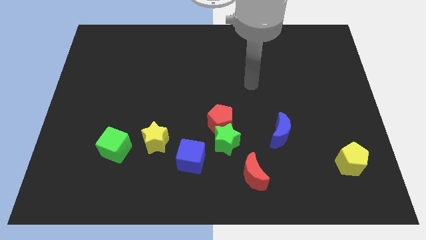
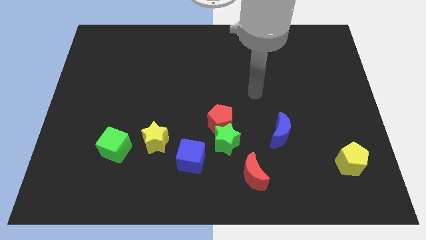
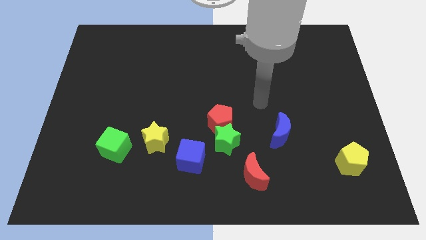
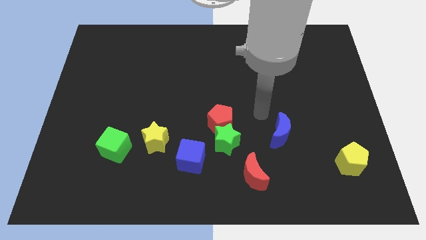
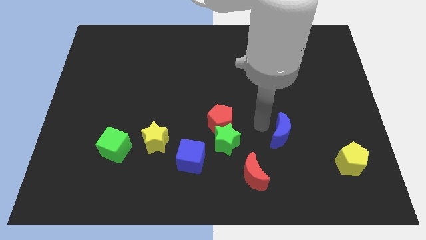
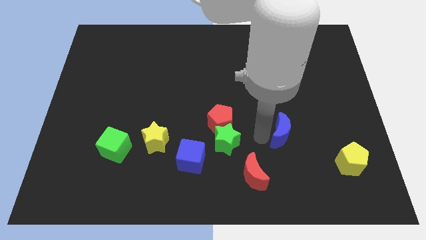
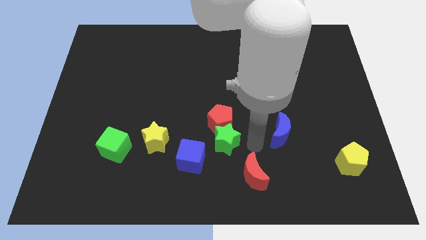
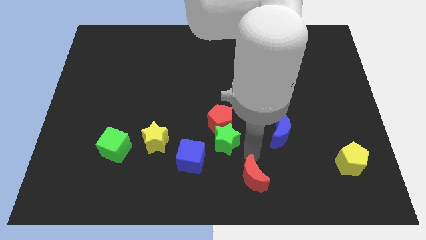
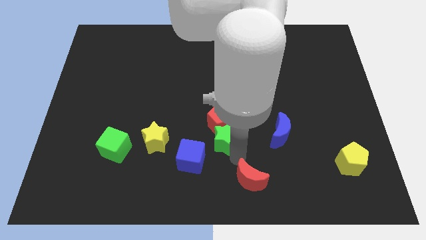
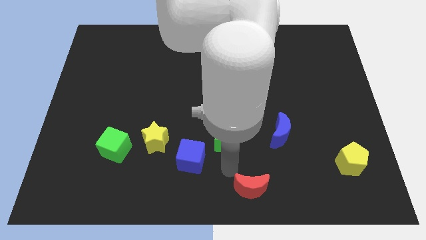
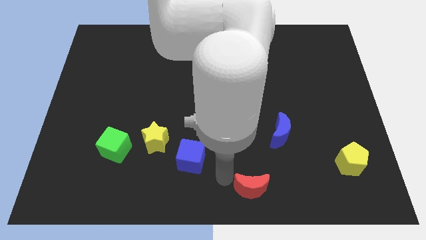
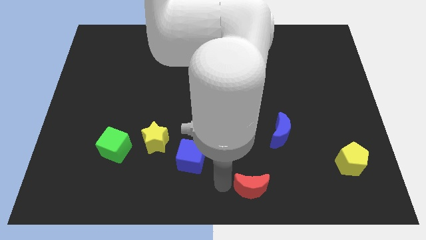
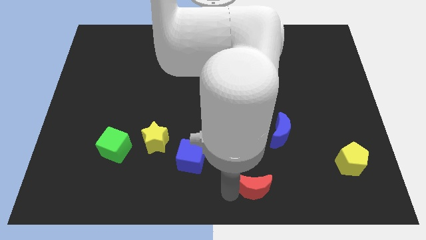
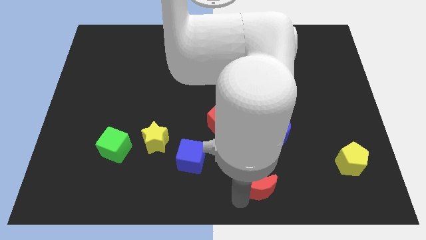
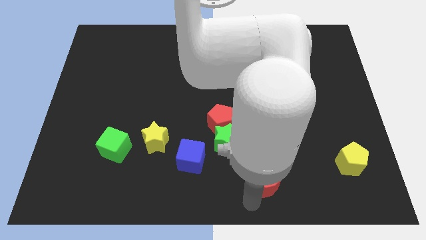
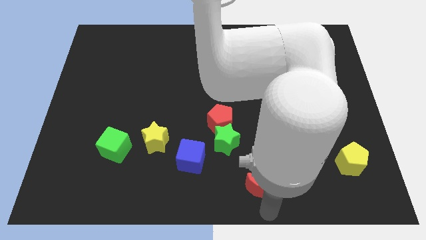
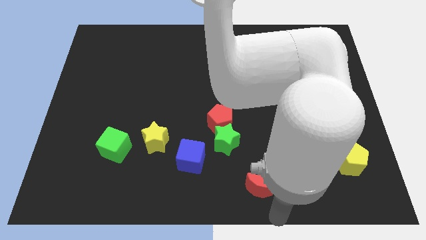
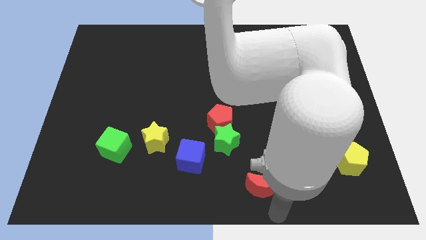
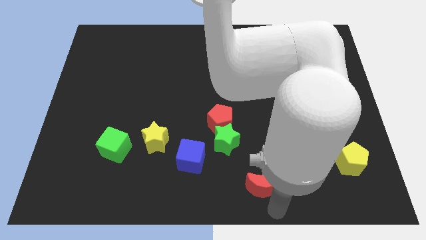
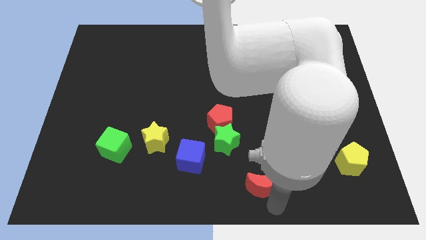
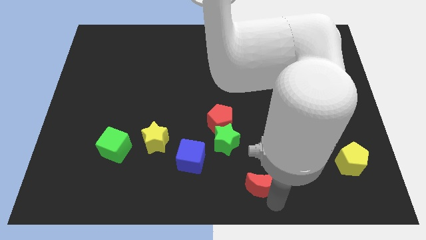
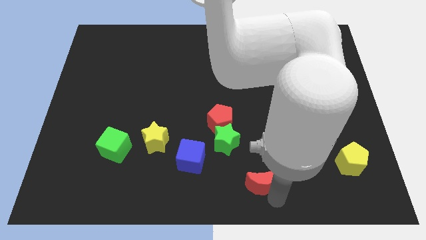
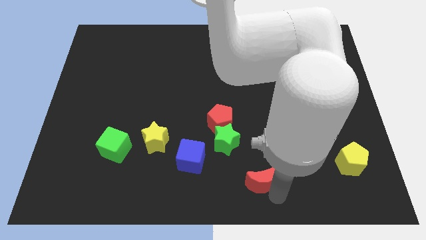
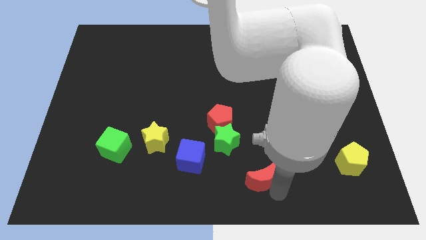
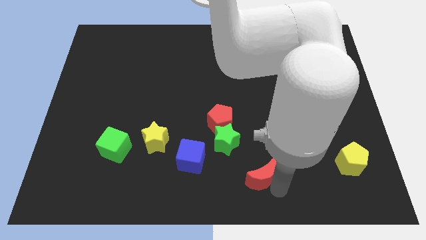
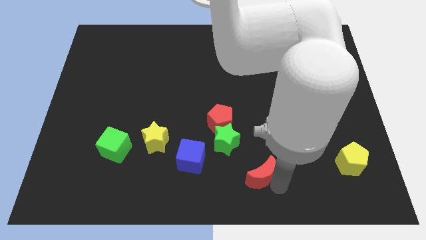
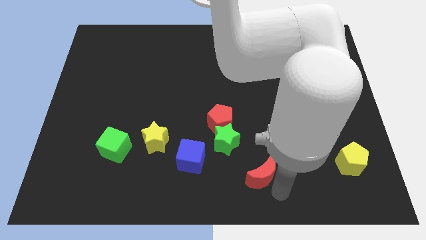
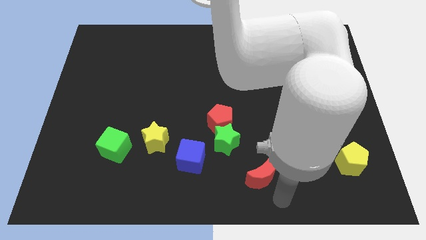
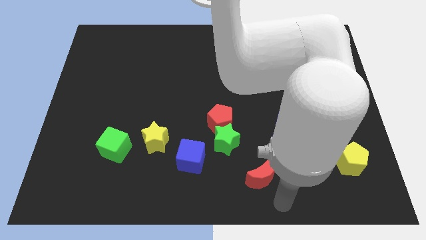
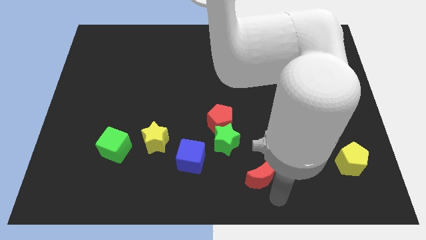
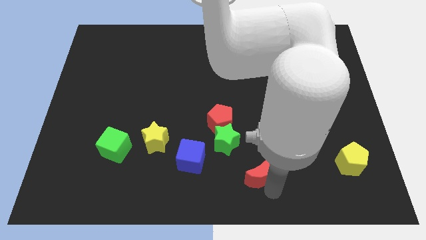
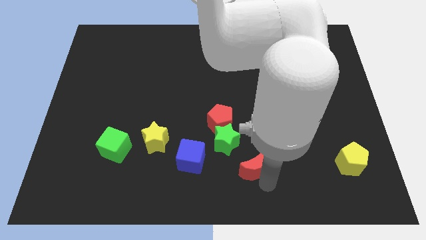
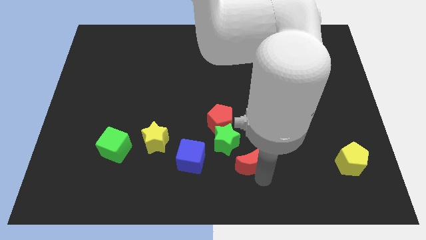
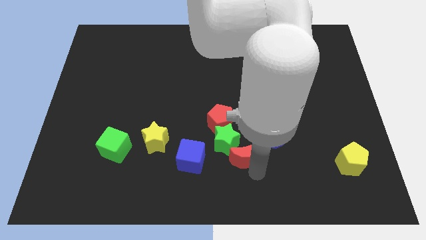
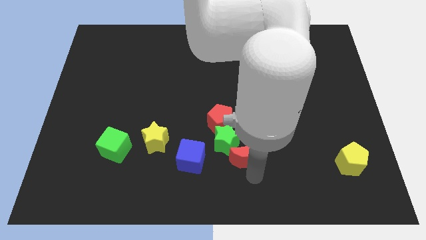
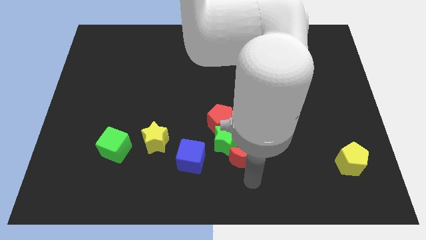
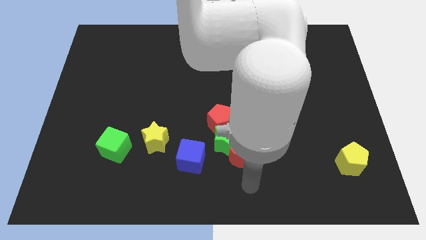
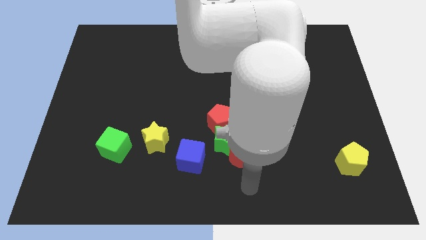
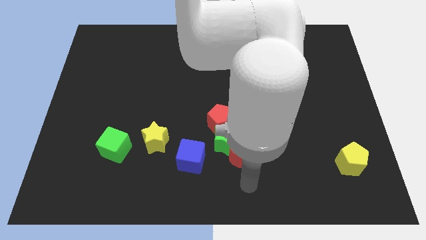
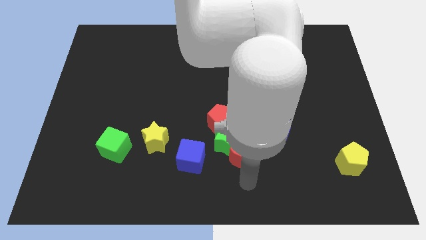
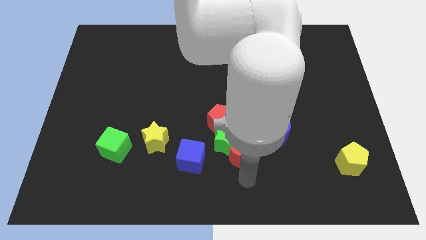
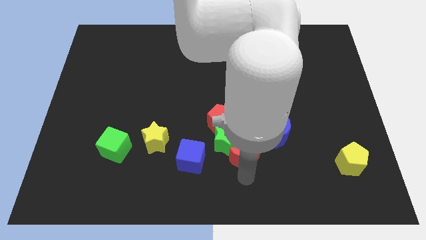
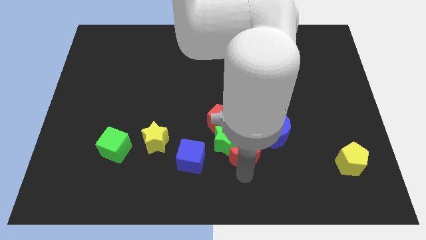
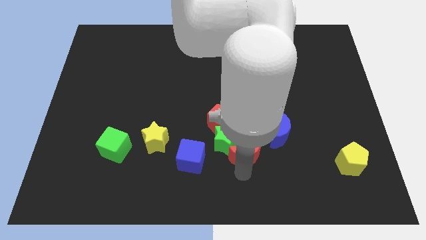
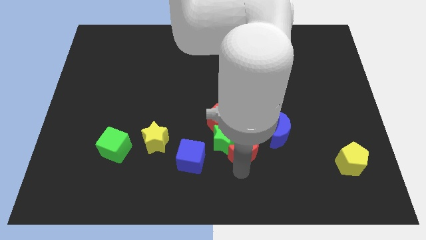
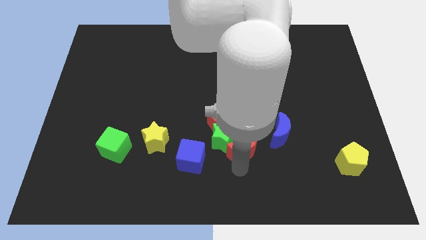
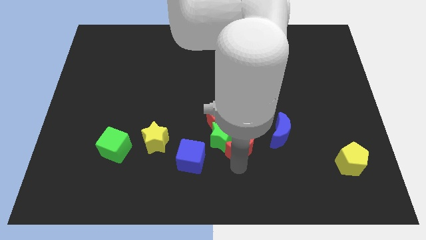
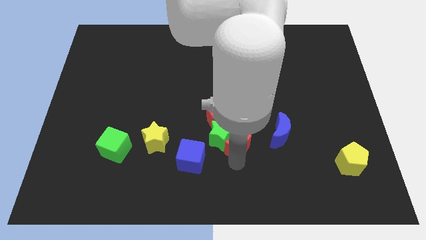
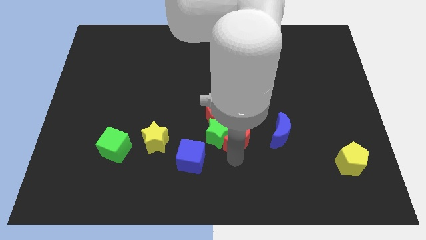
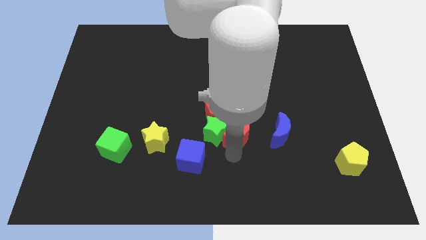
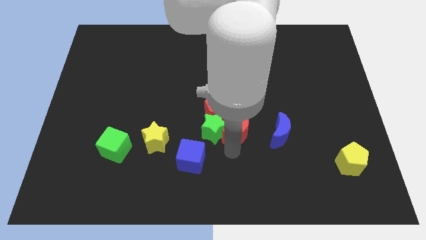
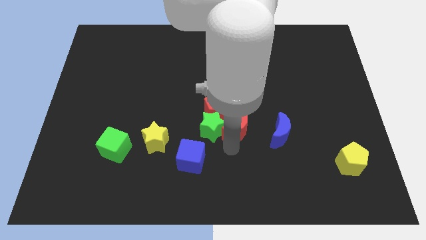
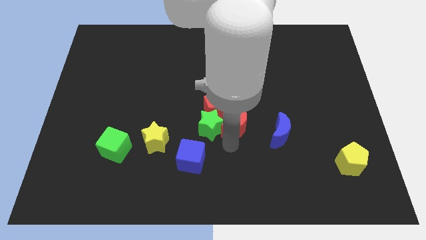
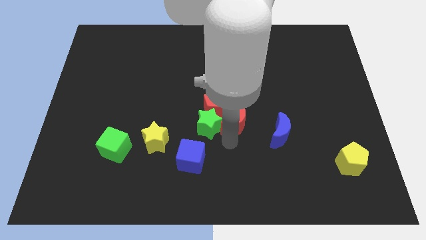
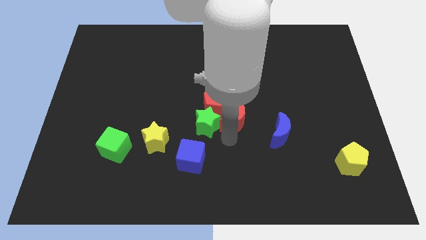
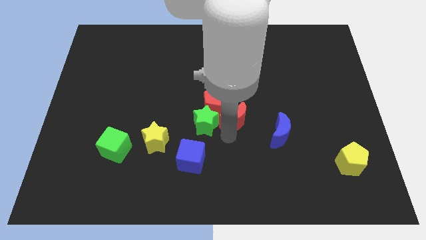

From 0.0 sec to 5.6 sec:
put the red moon close to the red pentagon

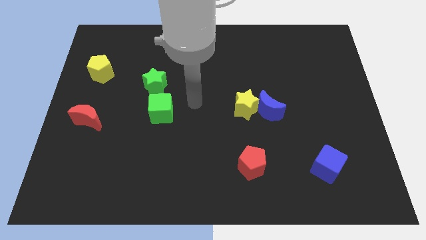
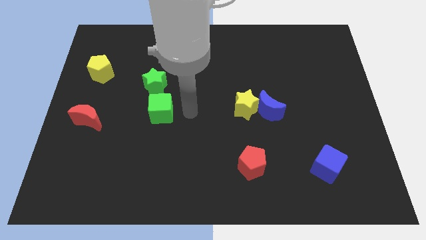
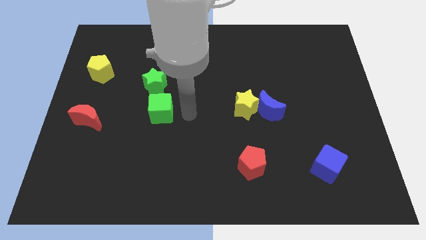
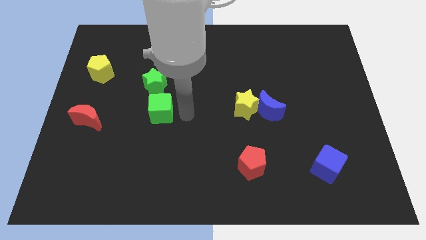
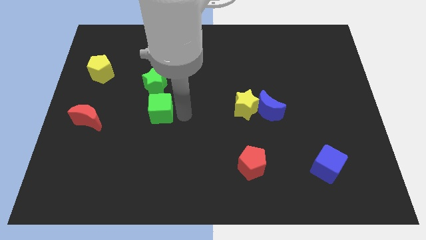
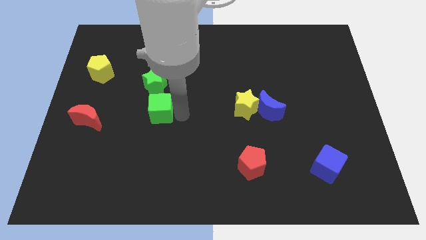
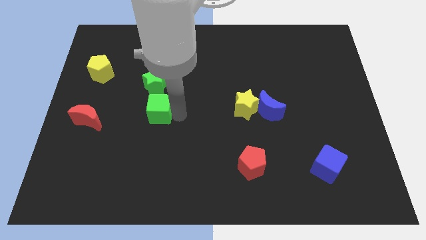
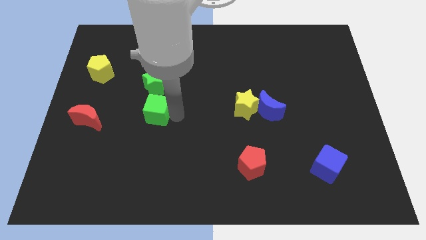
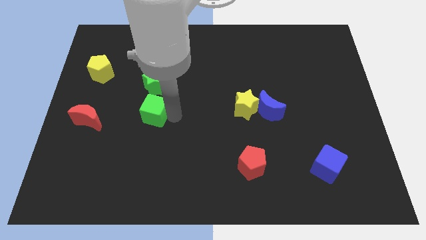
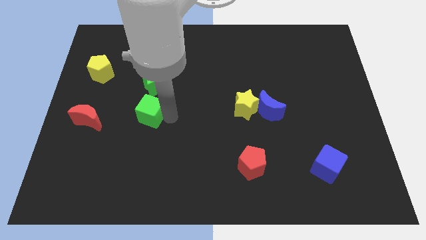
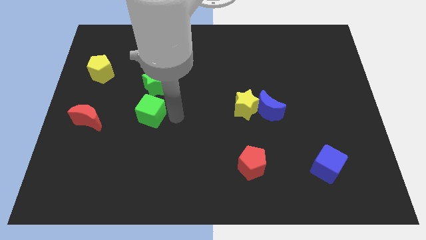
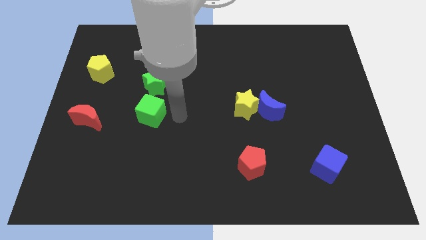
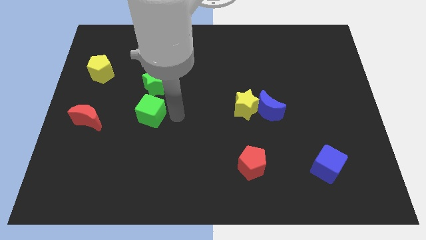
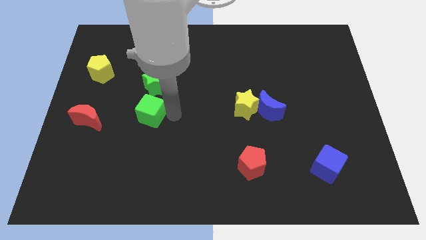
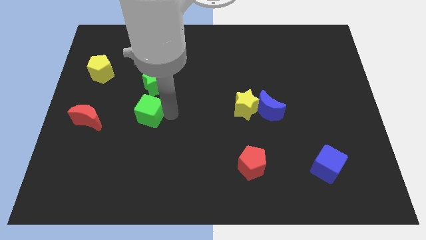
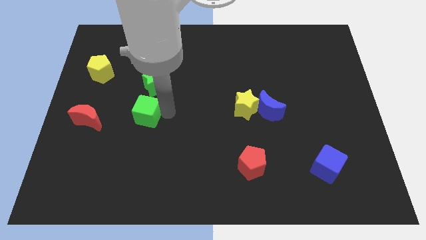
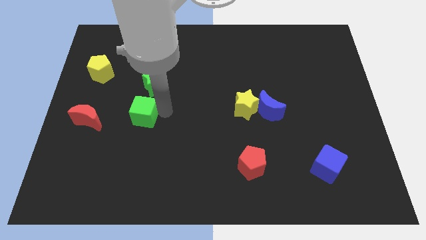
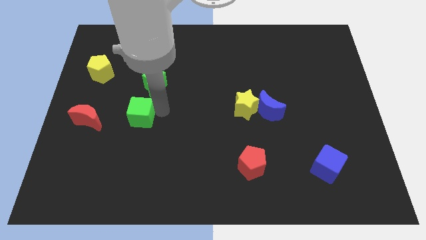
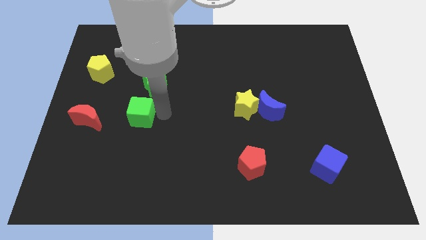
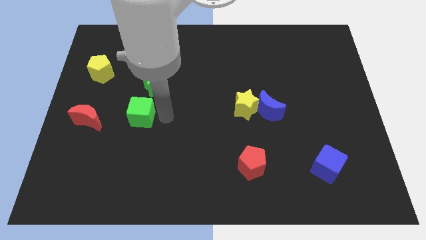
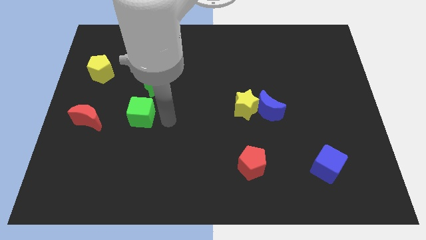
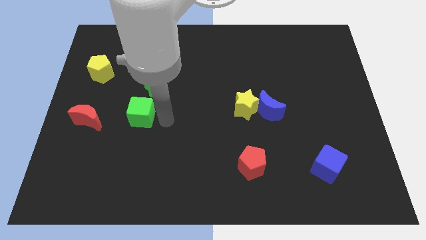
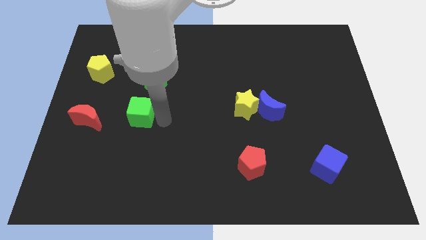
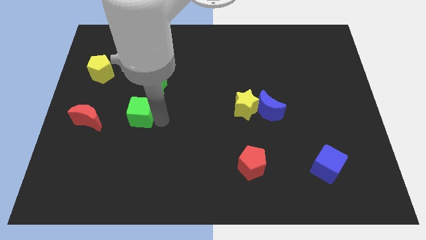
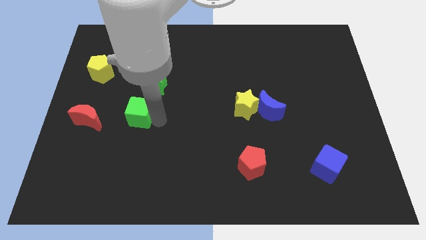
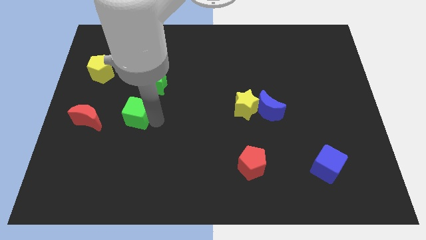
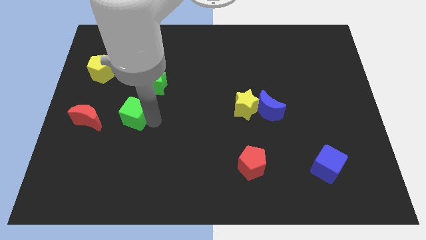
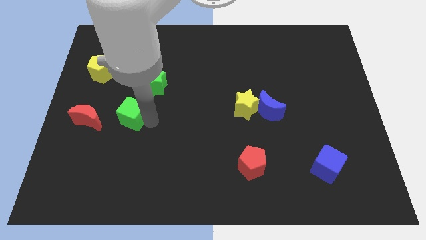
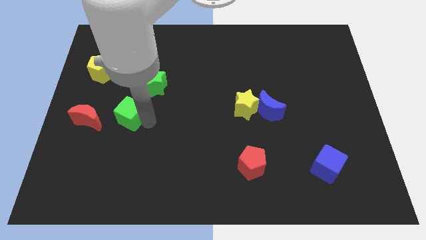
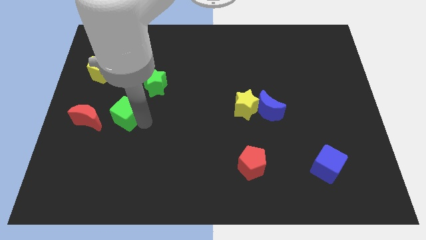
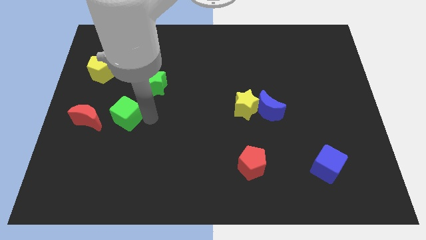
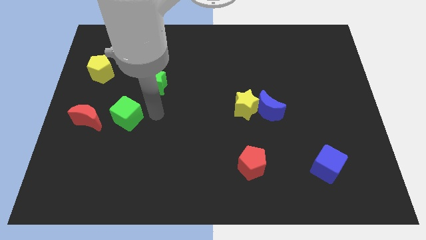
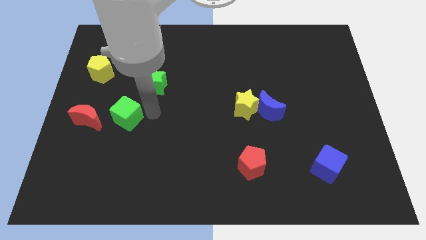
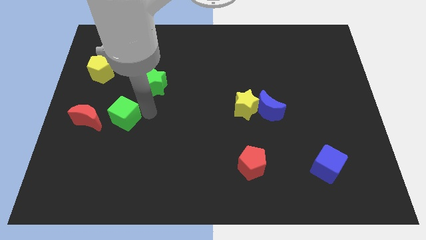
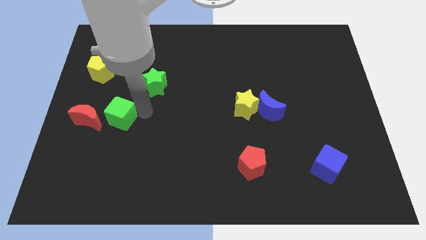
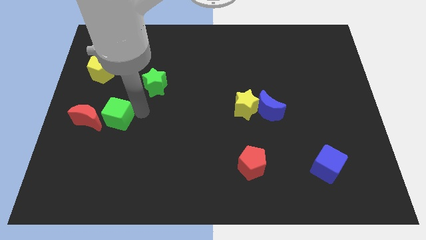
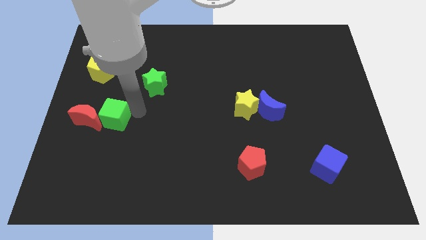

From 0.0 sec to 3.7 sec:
put the green cube towards the red moon
